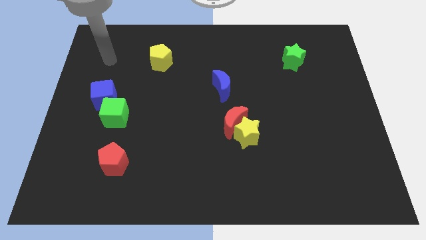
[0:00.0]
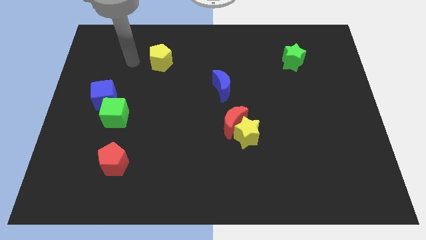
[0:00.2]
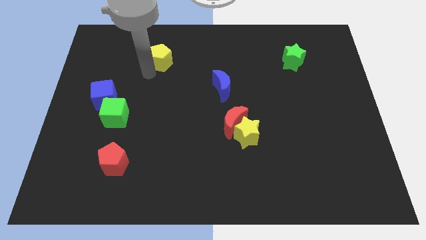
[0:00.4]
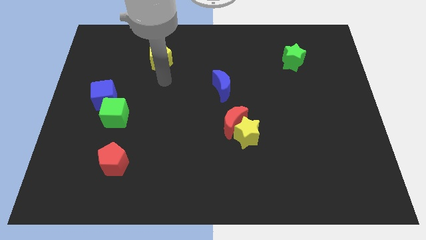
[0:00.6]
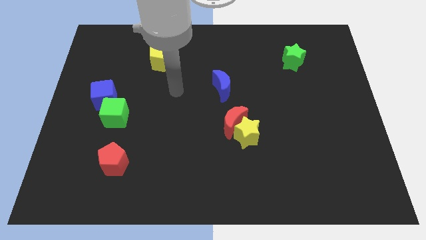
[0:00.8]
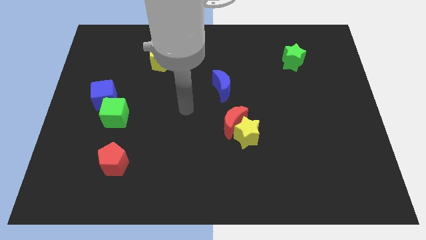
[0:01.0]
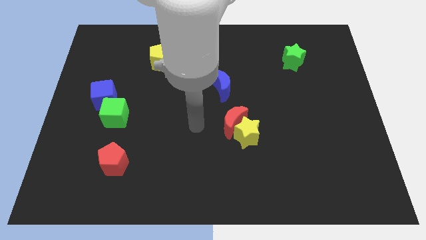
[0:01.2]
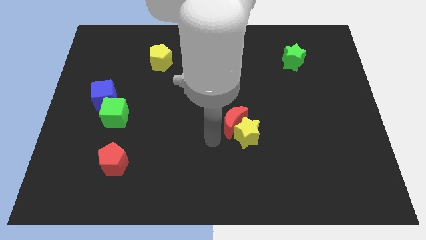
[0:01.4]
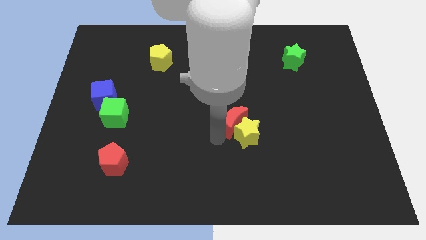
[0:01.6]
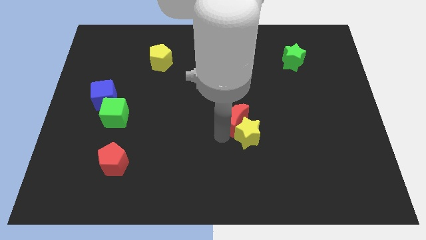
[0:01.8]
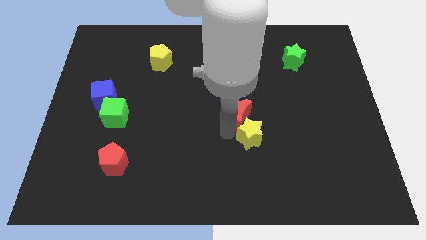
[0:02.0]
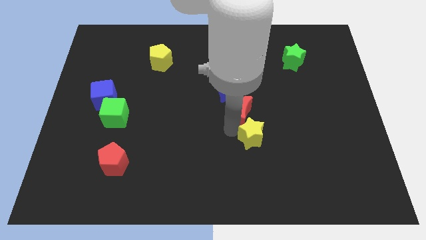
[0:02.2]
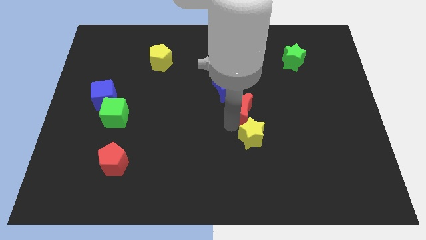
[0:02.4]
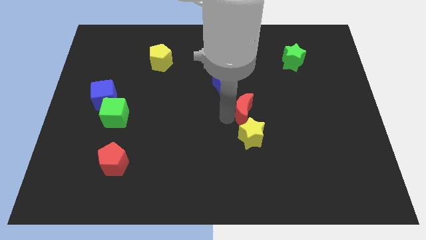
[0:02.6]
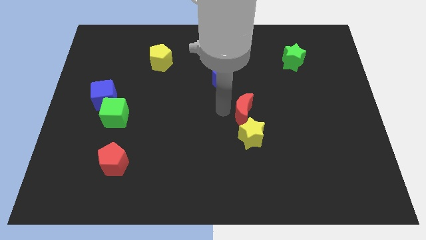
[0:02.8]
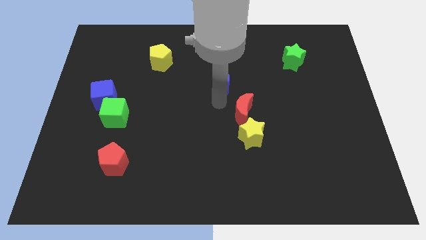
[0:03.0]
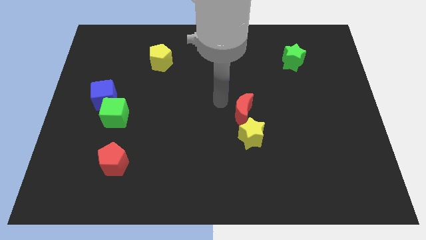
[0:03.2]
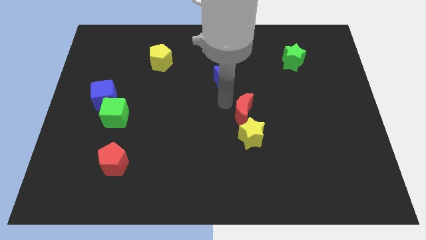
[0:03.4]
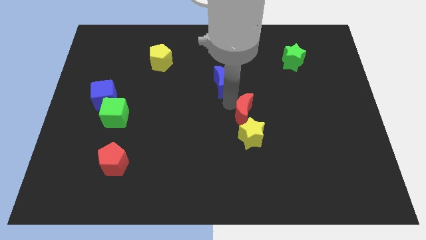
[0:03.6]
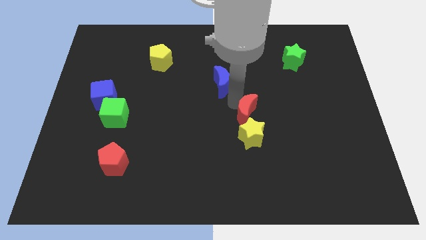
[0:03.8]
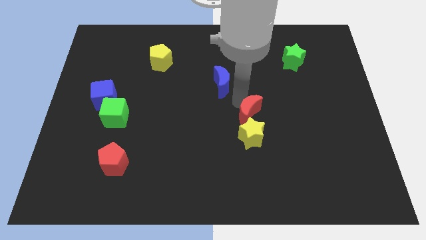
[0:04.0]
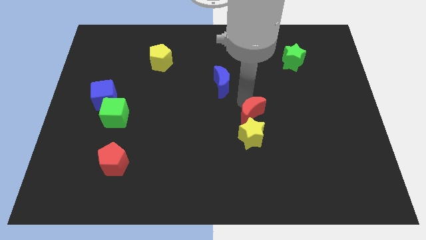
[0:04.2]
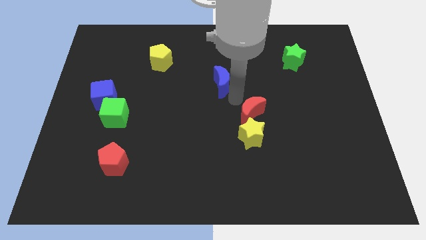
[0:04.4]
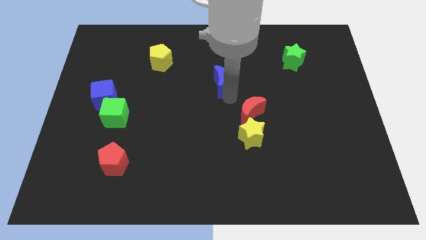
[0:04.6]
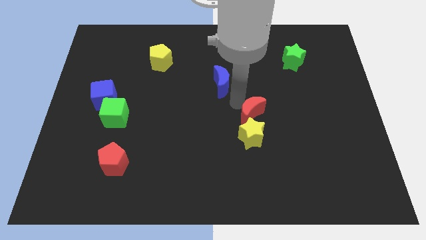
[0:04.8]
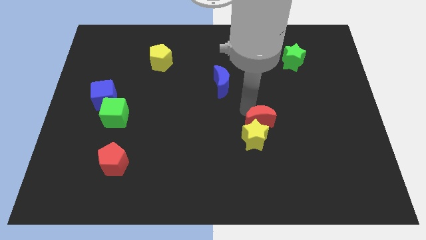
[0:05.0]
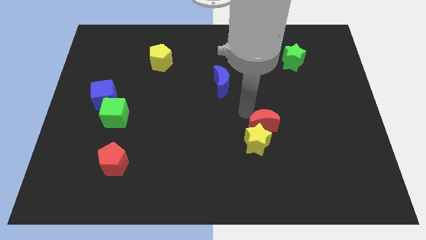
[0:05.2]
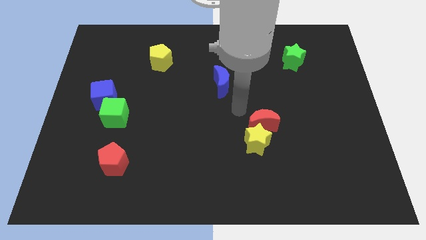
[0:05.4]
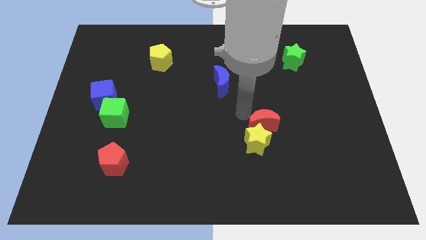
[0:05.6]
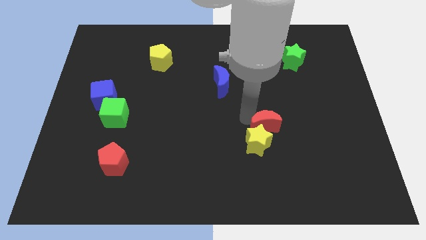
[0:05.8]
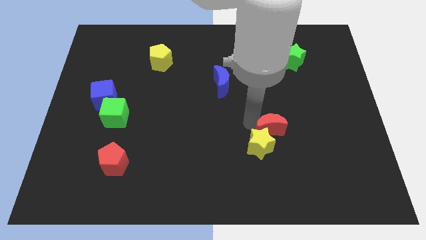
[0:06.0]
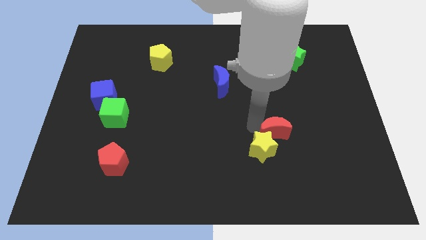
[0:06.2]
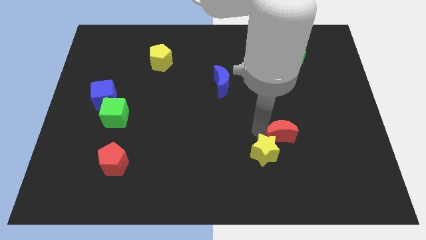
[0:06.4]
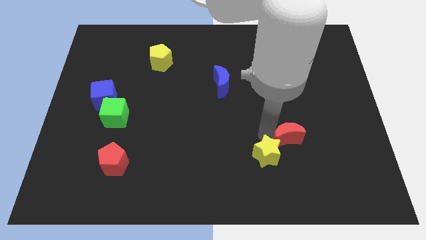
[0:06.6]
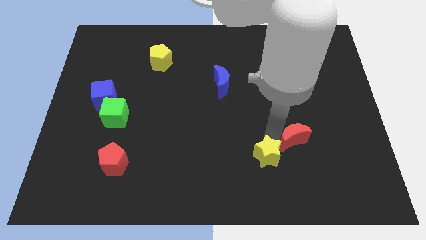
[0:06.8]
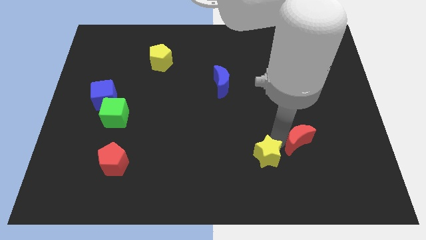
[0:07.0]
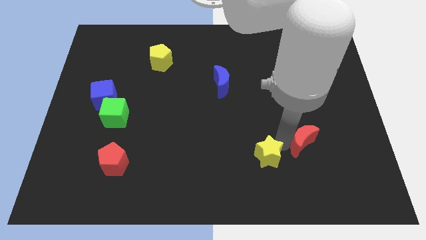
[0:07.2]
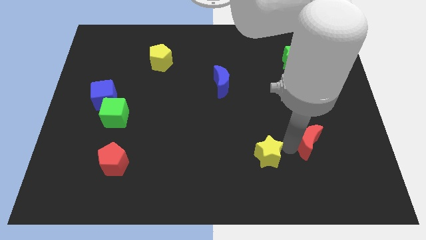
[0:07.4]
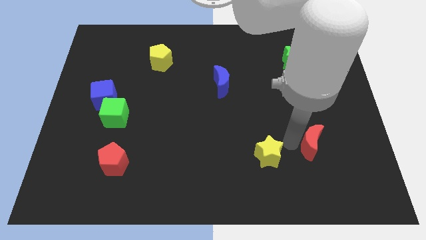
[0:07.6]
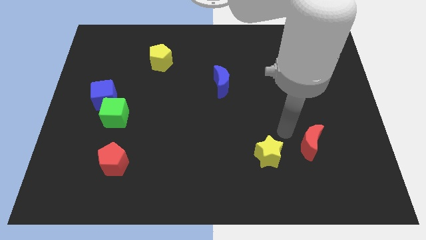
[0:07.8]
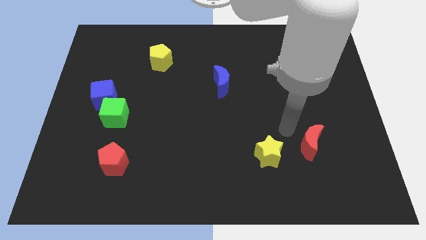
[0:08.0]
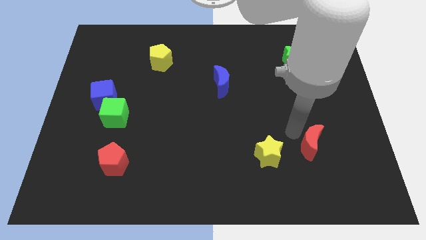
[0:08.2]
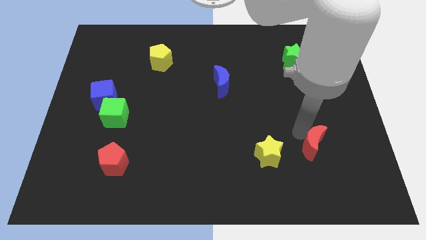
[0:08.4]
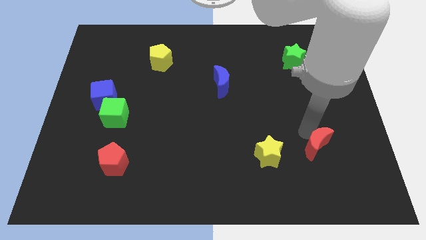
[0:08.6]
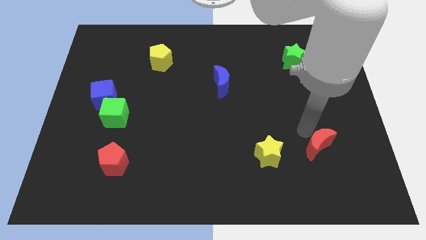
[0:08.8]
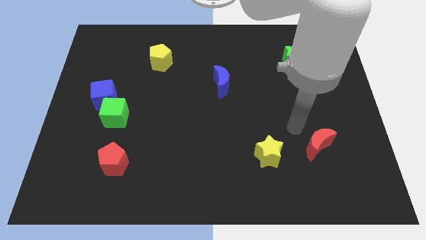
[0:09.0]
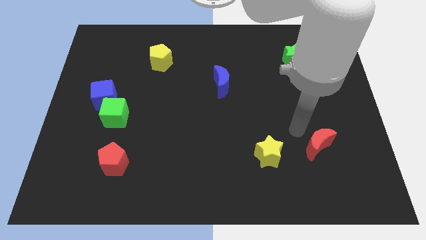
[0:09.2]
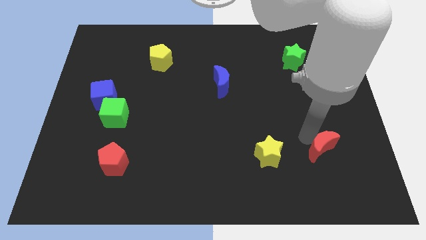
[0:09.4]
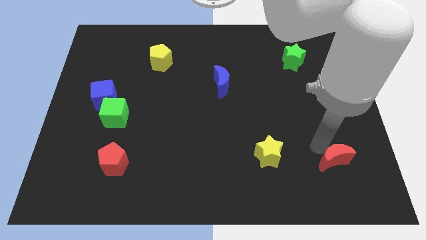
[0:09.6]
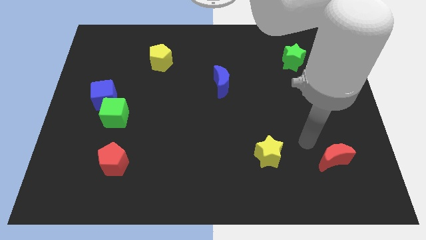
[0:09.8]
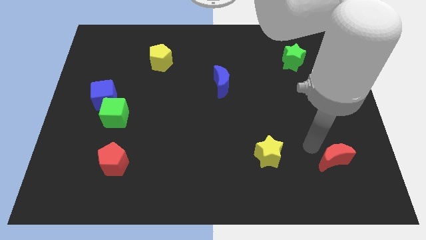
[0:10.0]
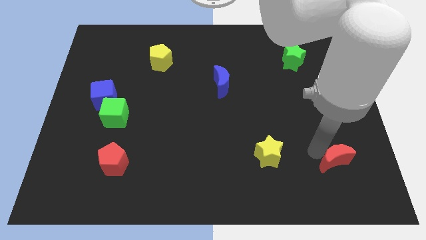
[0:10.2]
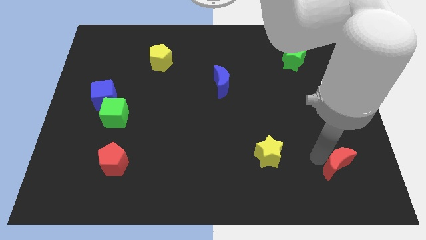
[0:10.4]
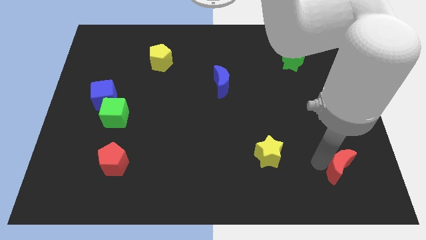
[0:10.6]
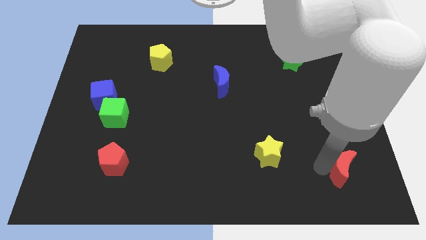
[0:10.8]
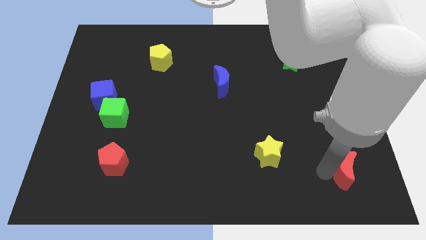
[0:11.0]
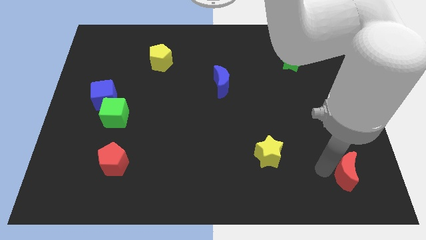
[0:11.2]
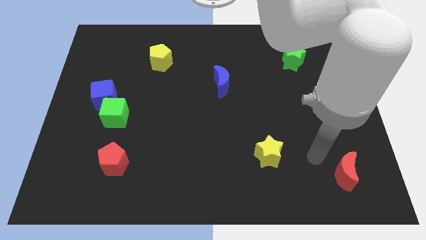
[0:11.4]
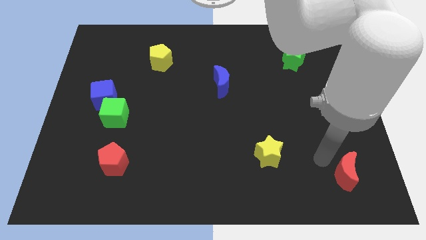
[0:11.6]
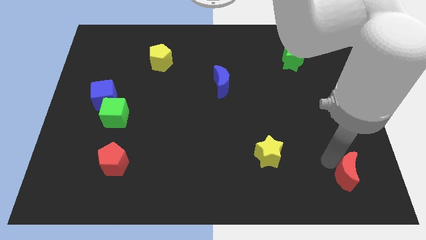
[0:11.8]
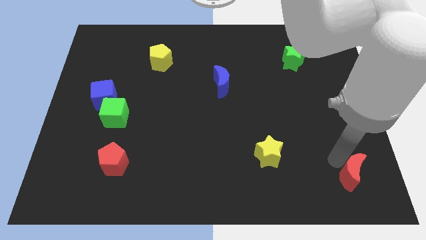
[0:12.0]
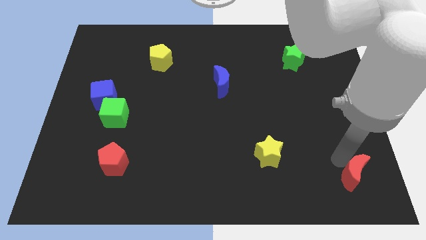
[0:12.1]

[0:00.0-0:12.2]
slide the red moon to the lower right corner
